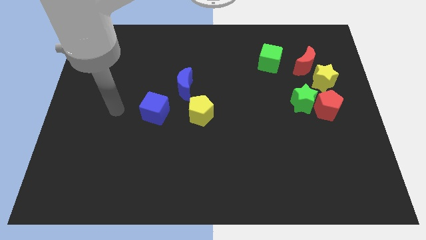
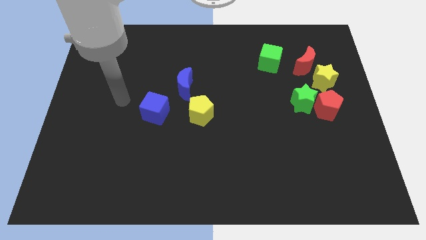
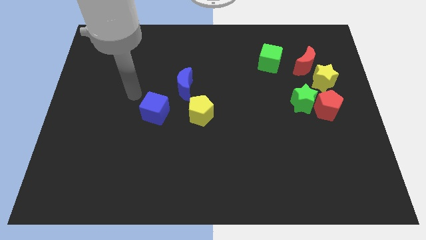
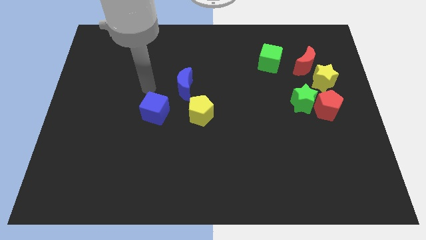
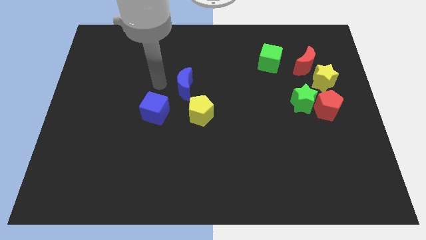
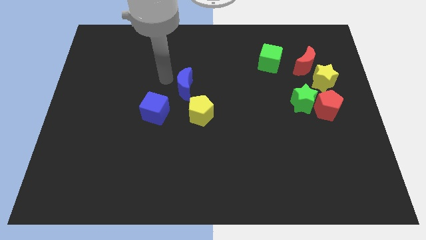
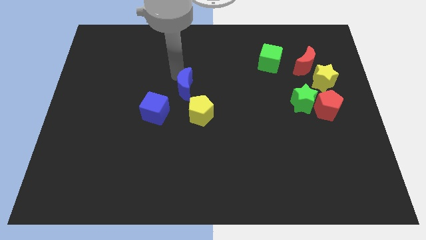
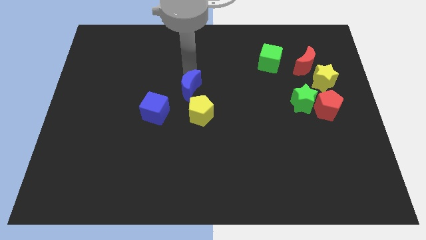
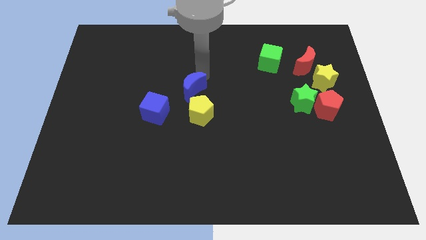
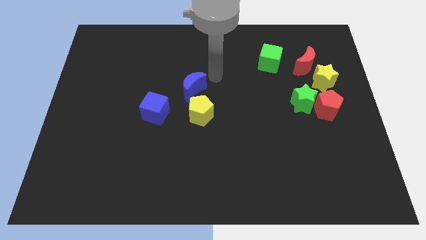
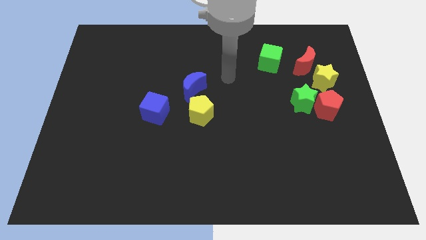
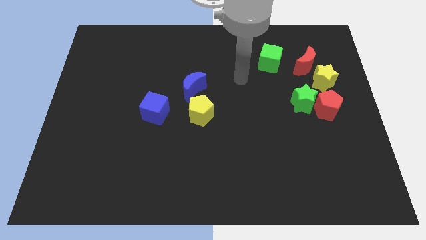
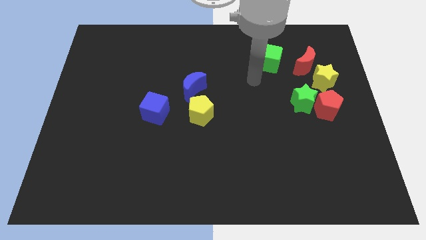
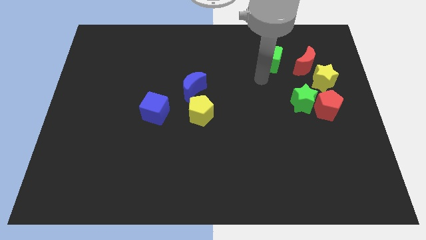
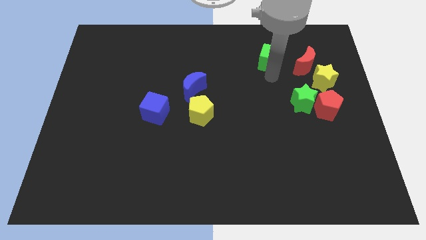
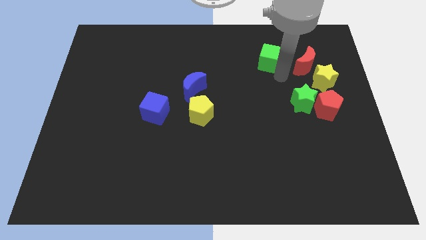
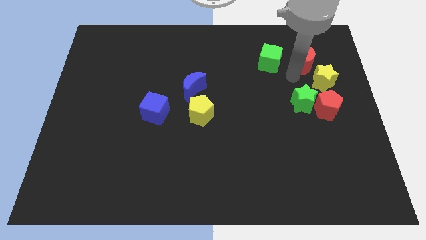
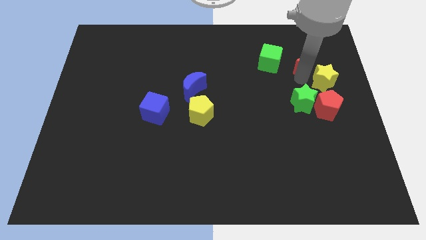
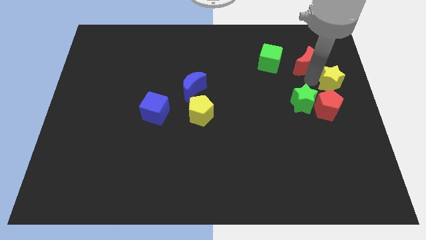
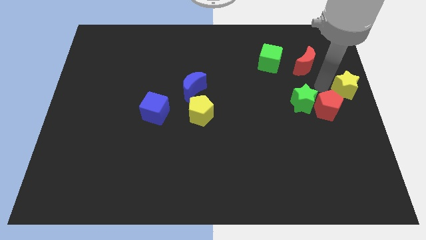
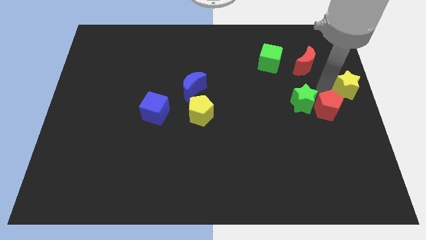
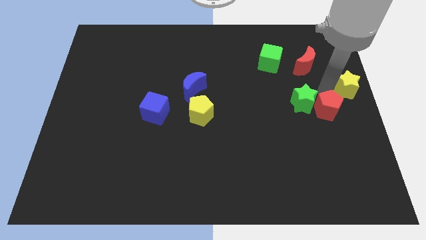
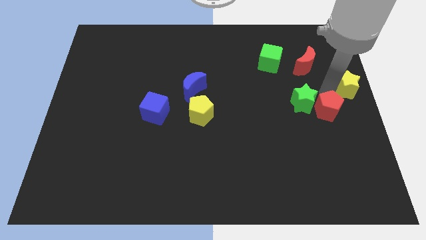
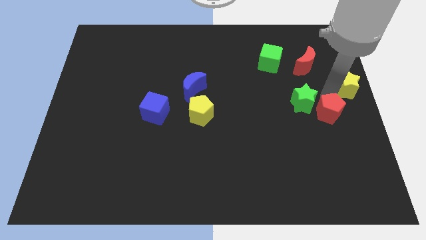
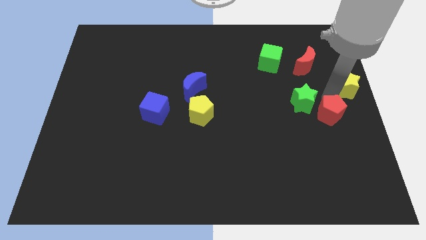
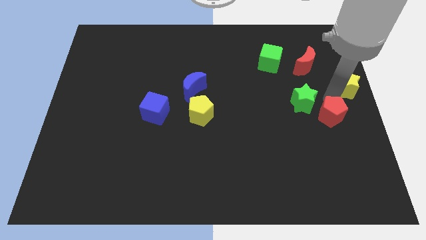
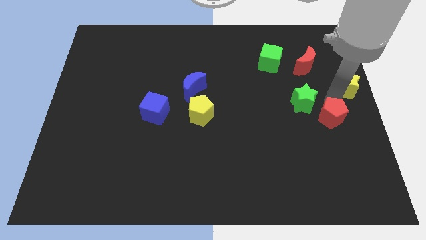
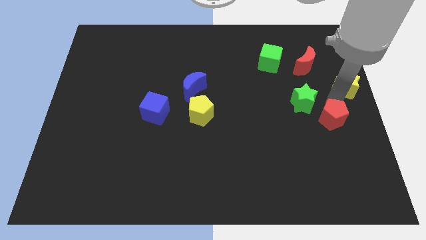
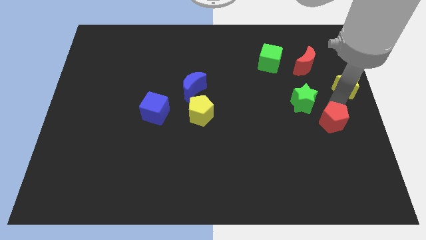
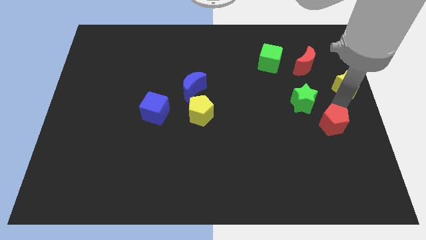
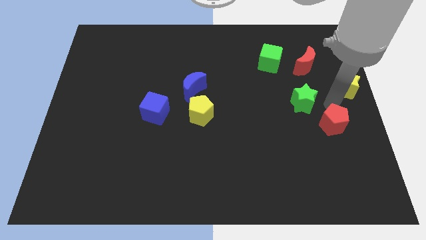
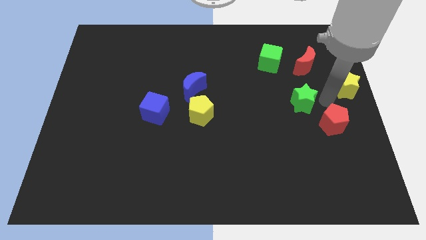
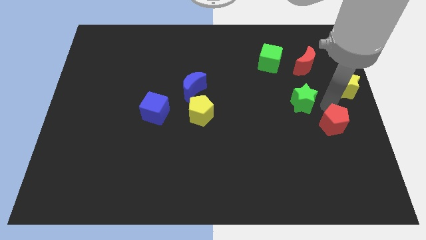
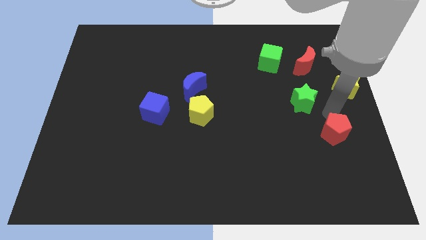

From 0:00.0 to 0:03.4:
slightly slide the red pentagon downwards

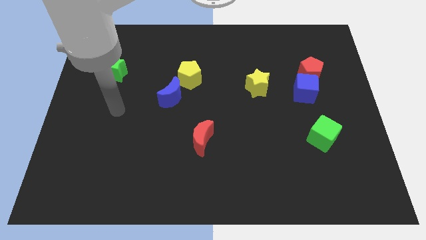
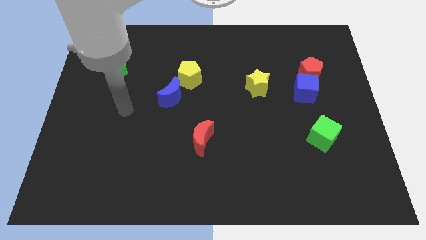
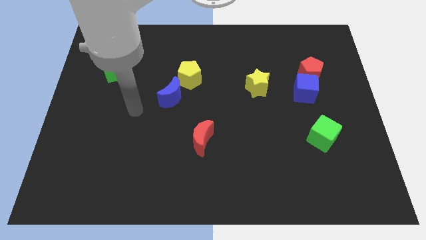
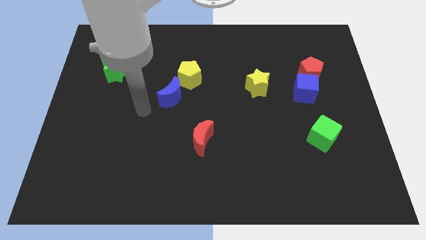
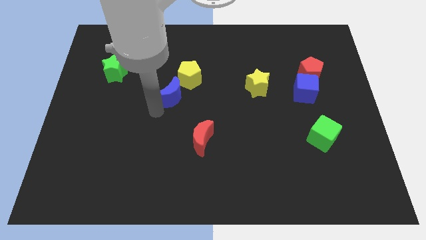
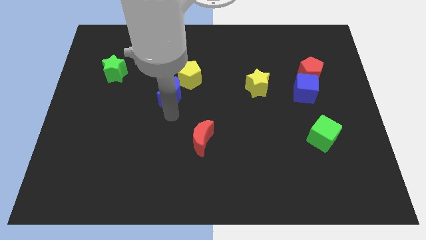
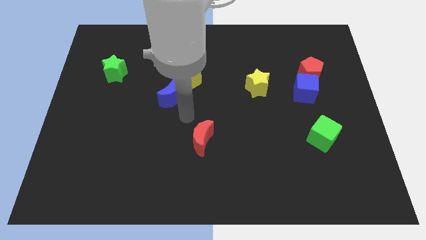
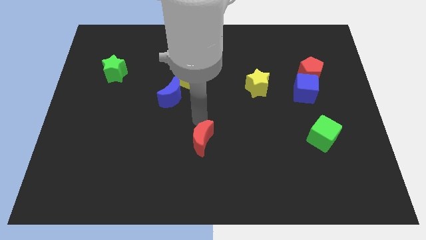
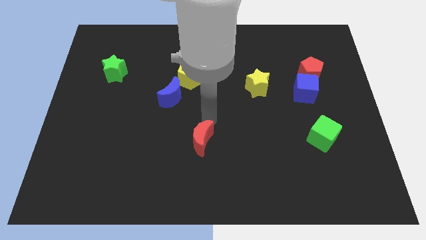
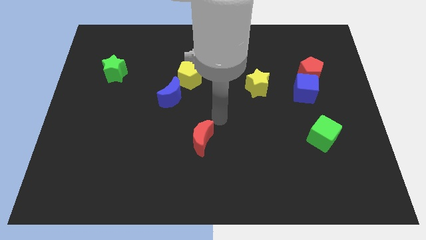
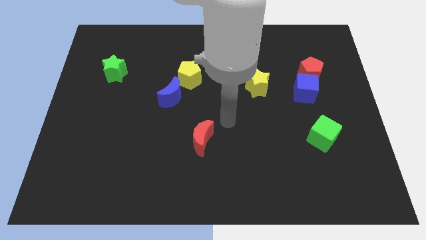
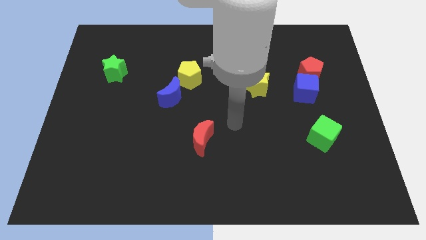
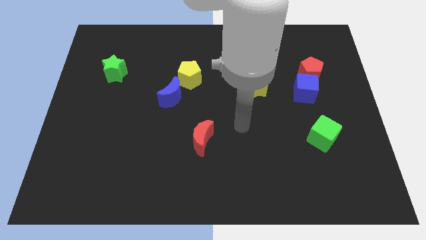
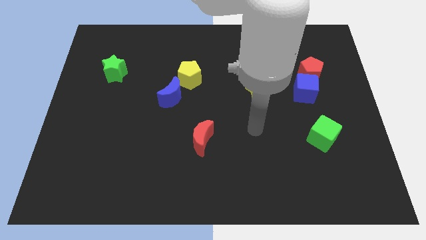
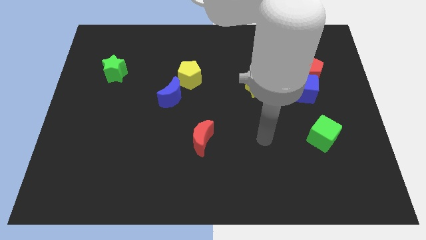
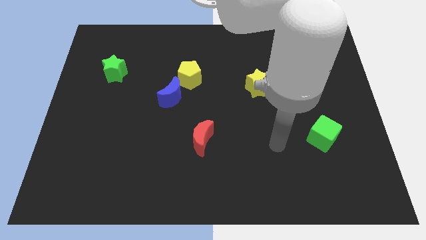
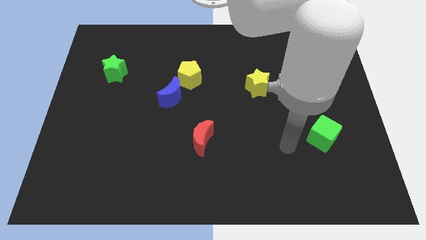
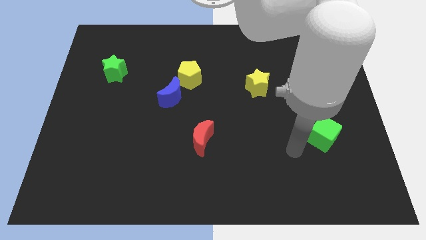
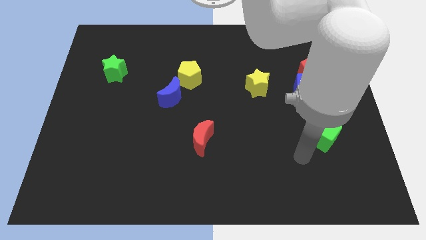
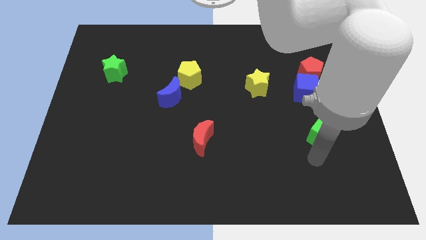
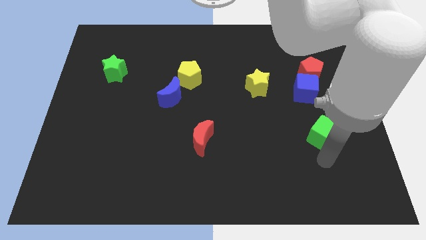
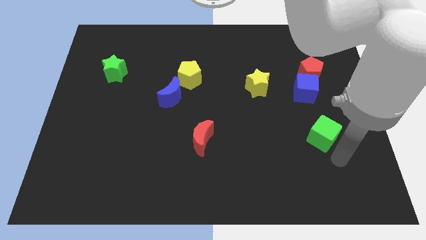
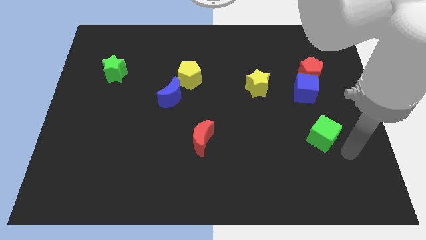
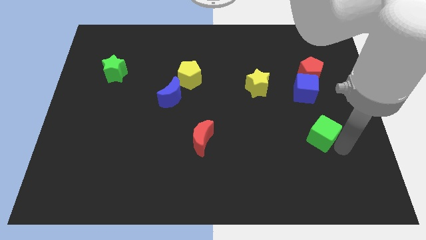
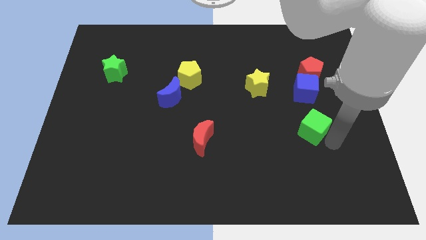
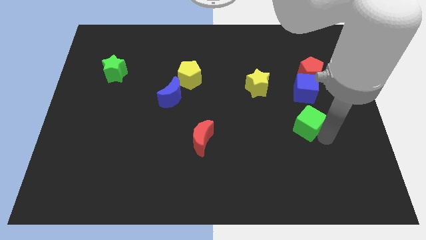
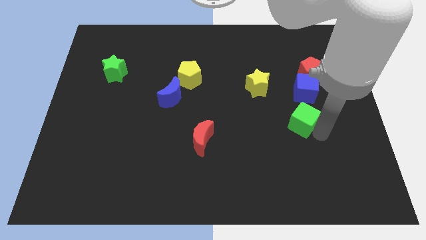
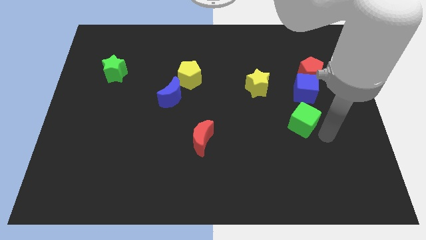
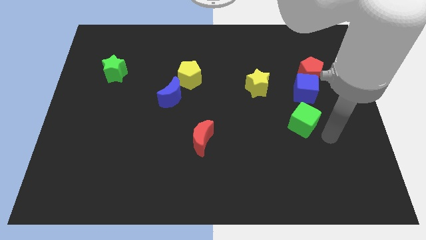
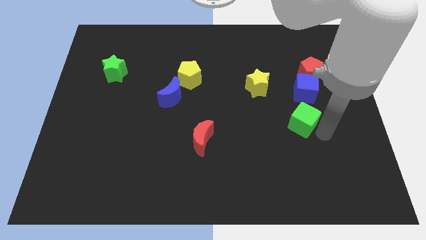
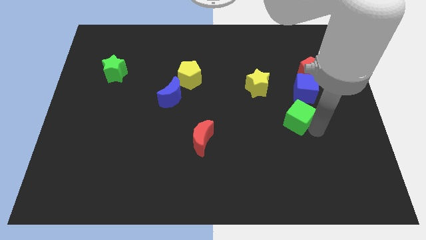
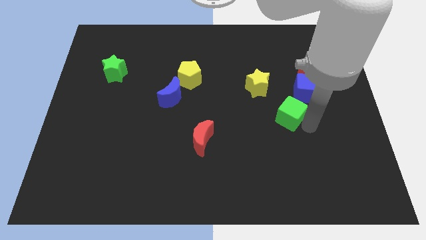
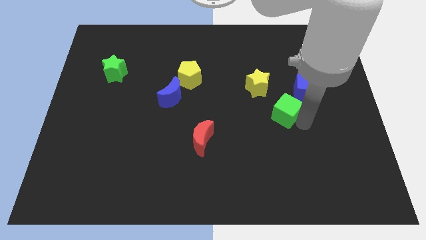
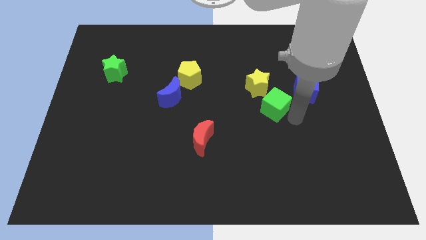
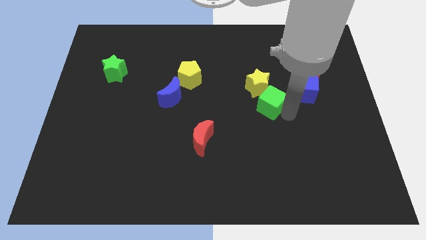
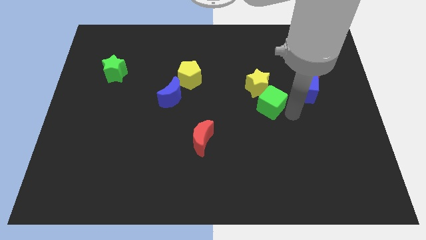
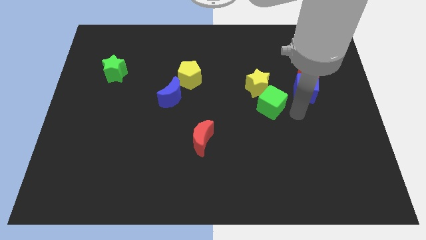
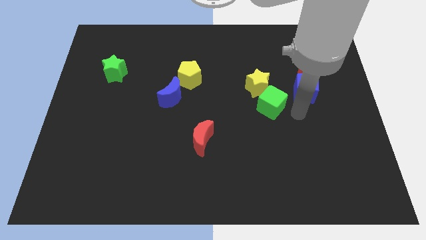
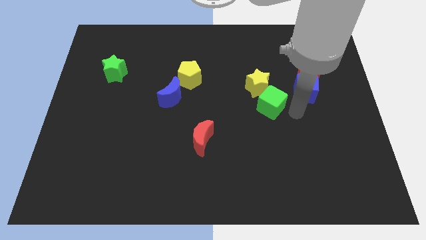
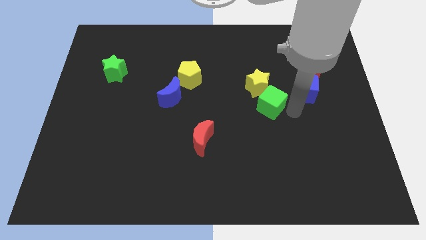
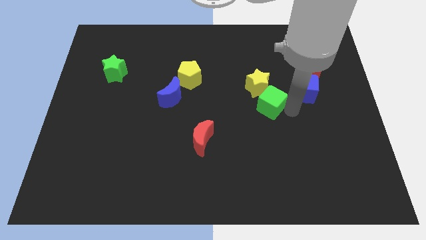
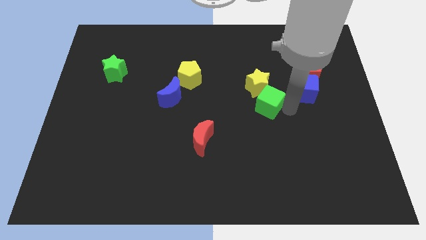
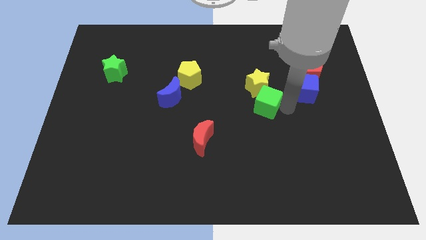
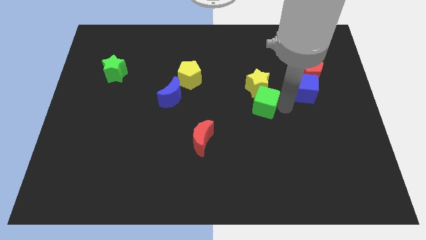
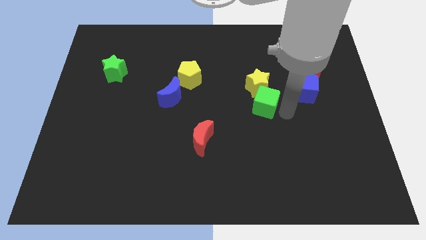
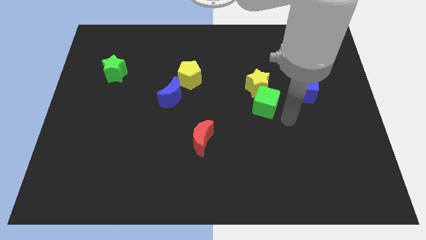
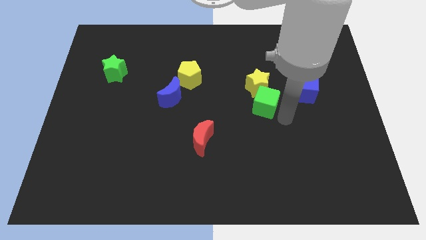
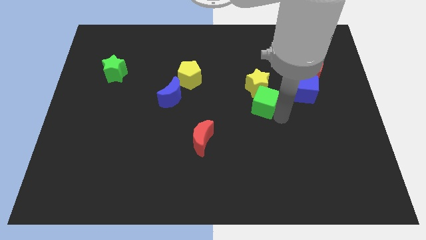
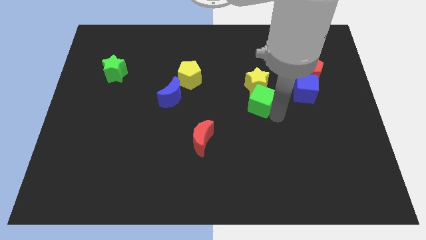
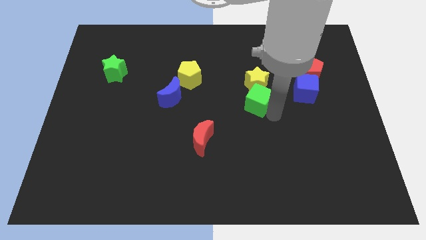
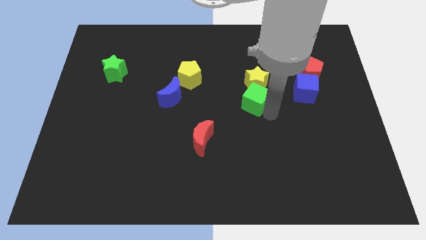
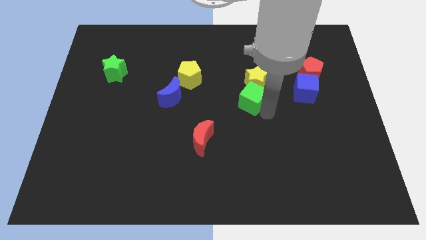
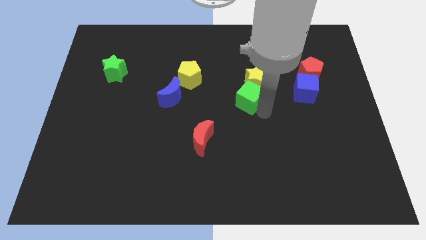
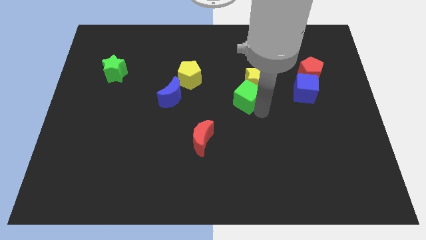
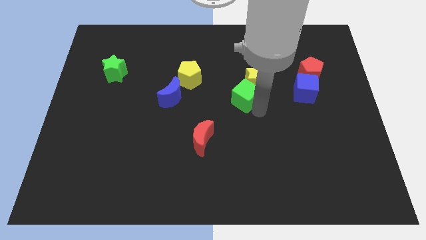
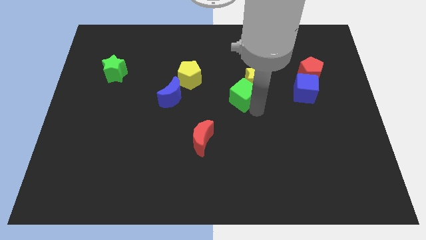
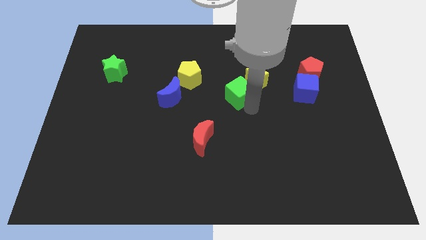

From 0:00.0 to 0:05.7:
move the green cube upwards and left
